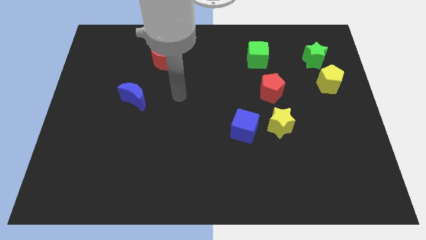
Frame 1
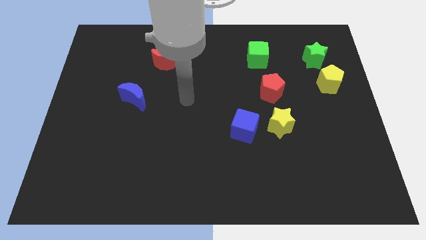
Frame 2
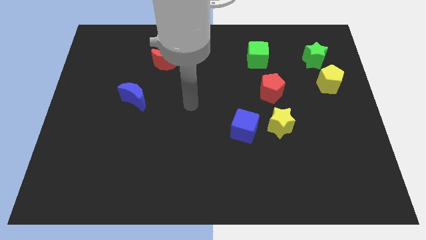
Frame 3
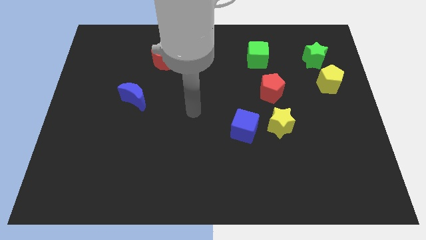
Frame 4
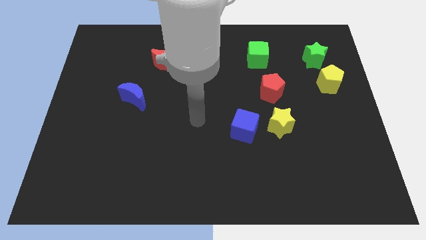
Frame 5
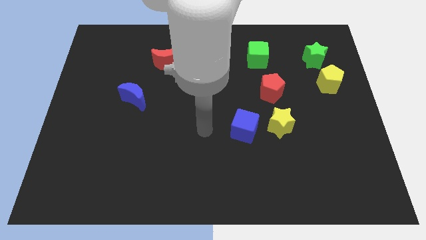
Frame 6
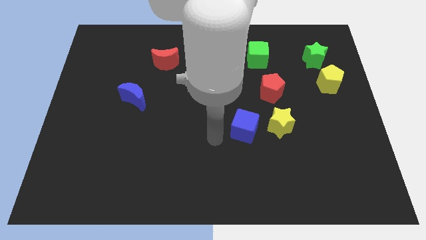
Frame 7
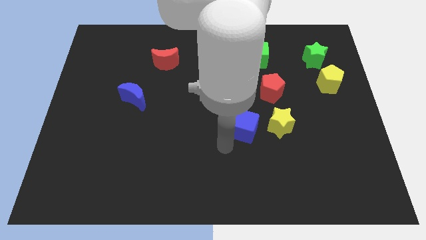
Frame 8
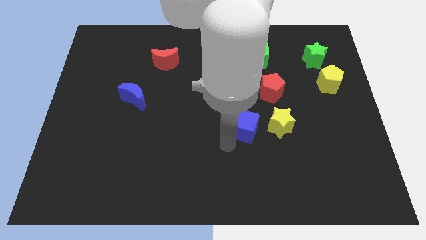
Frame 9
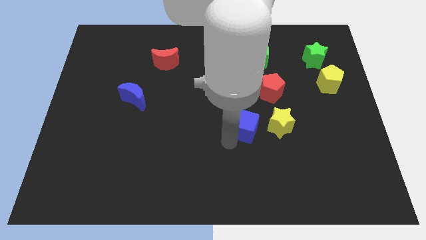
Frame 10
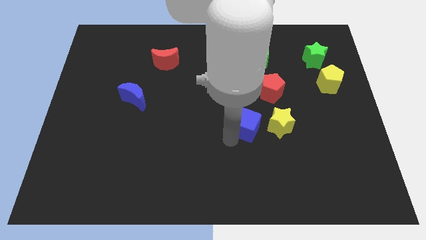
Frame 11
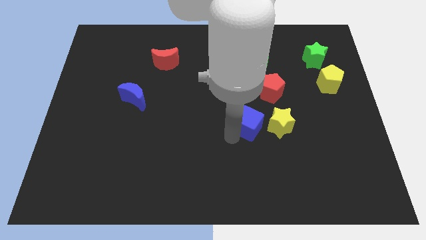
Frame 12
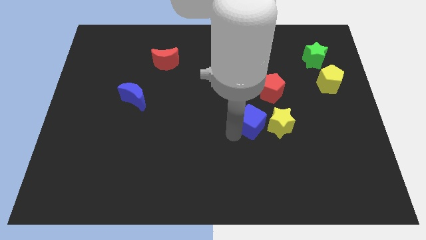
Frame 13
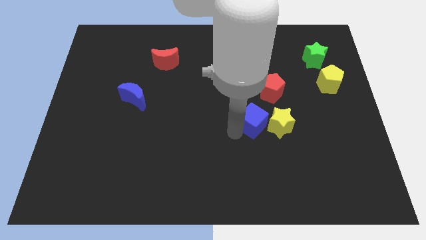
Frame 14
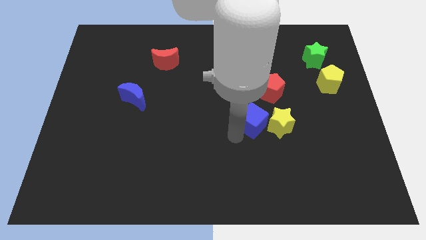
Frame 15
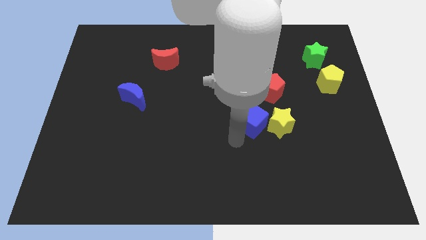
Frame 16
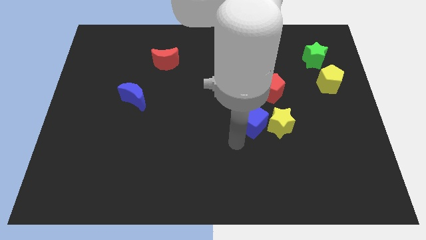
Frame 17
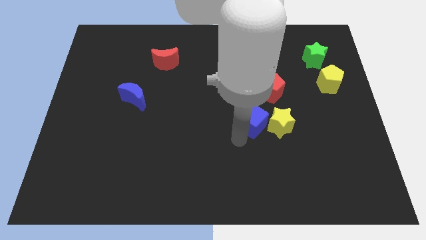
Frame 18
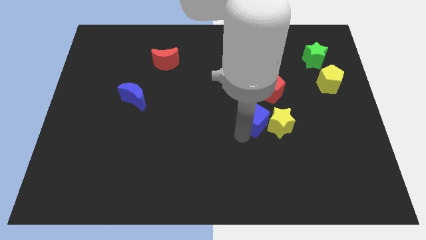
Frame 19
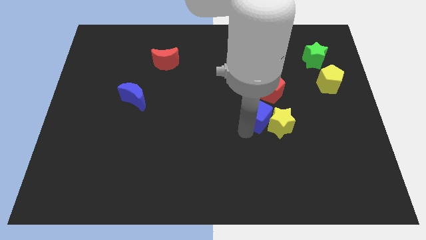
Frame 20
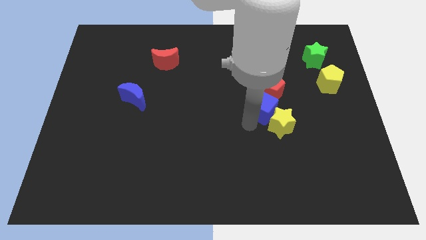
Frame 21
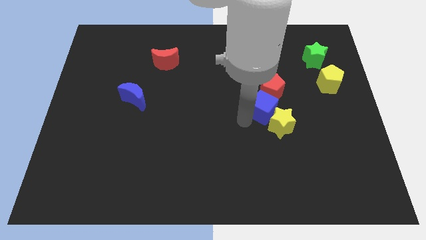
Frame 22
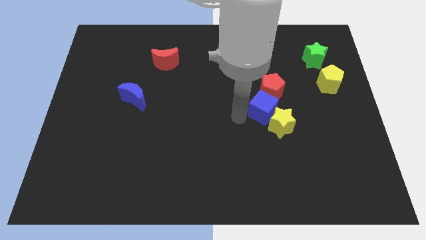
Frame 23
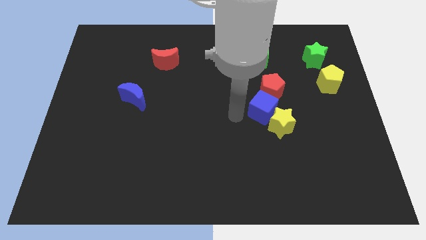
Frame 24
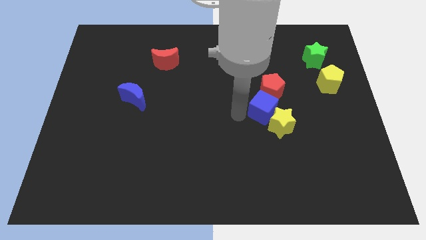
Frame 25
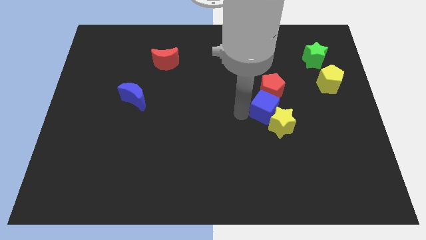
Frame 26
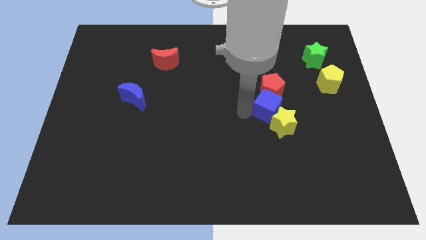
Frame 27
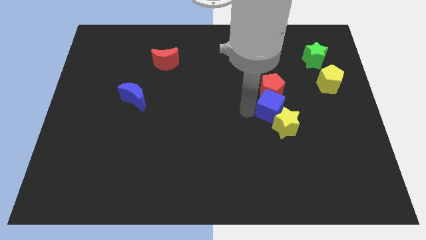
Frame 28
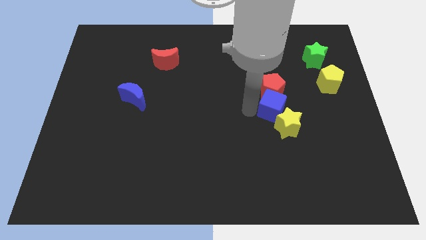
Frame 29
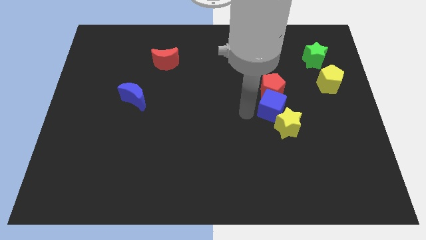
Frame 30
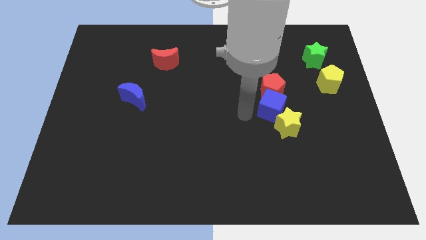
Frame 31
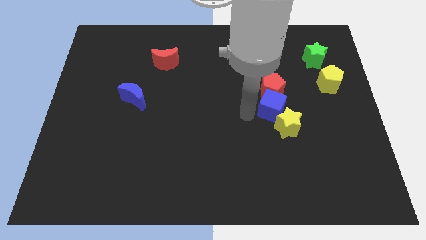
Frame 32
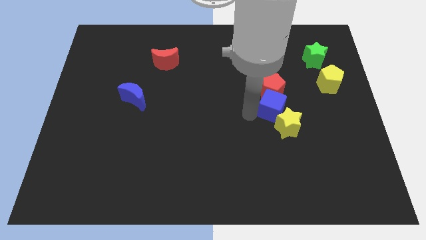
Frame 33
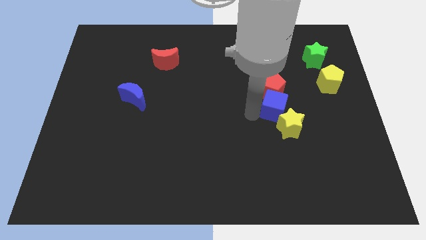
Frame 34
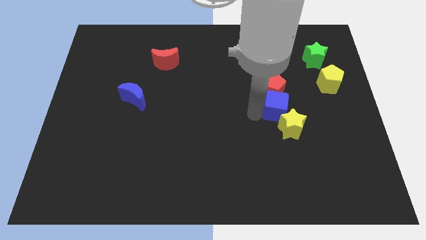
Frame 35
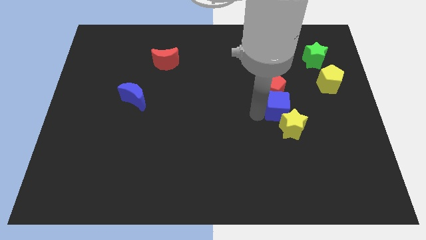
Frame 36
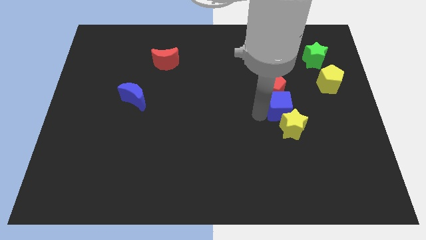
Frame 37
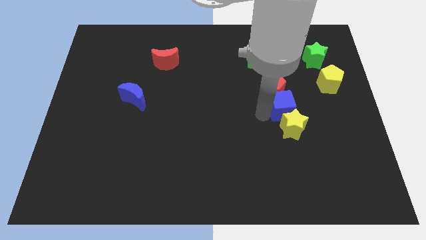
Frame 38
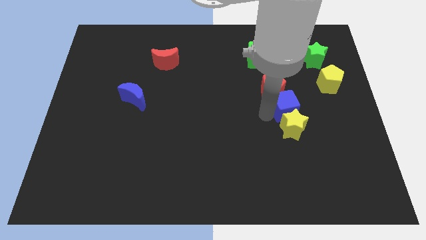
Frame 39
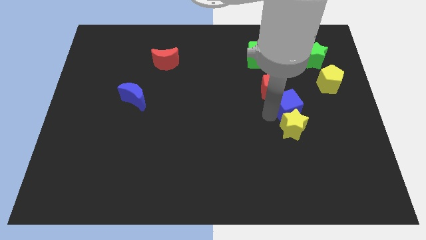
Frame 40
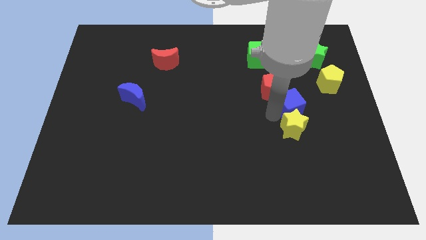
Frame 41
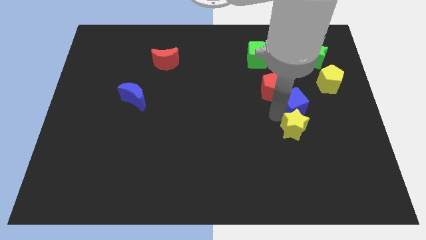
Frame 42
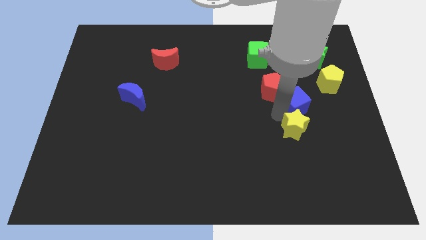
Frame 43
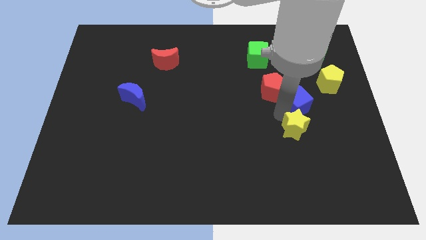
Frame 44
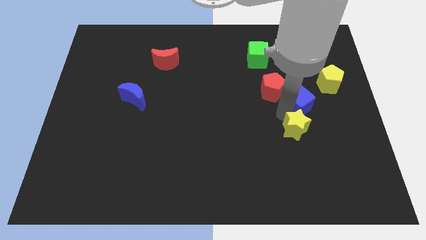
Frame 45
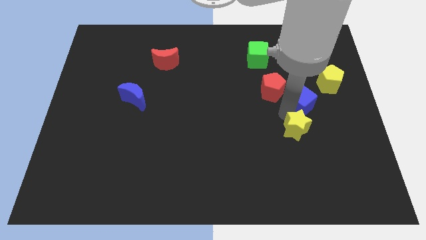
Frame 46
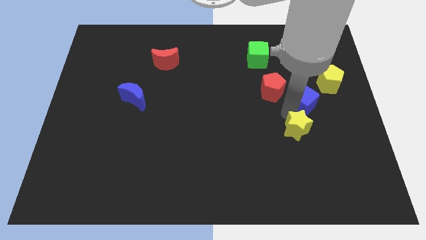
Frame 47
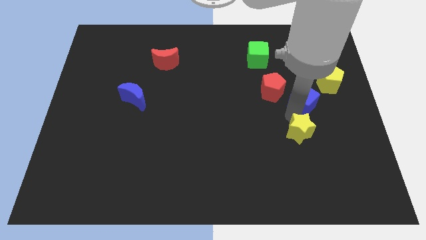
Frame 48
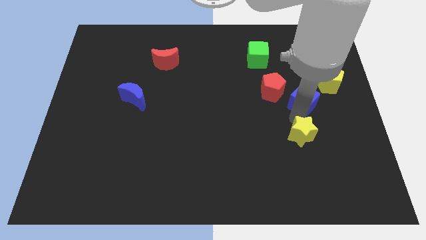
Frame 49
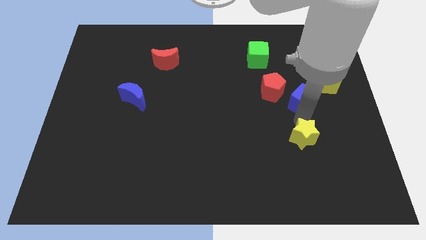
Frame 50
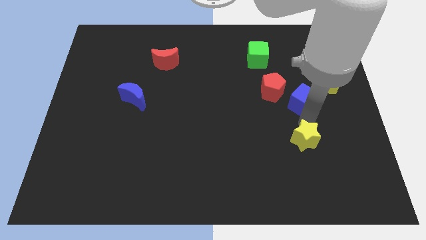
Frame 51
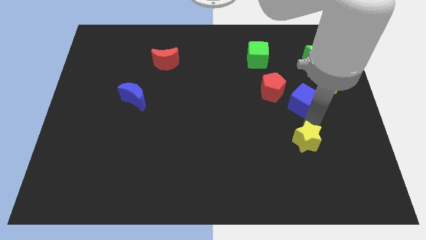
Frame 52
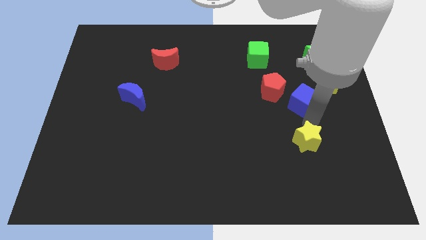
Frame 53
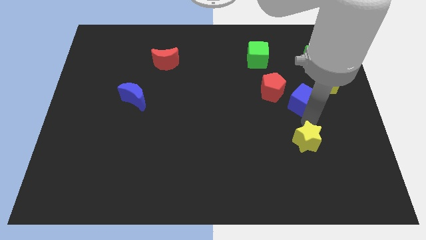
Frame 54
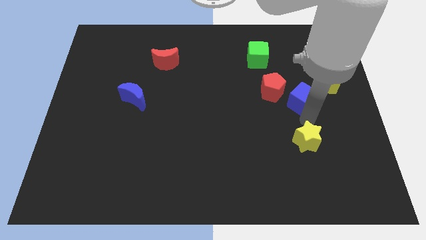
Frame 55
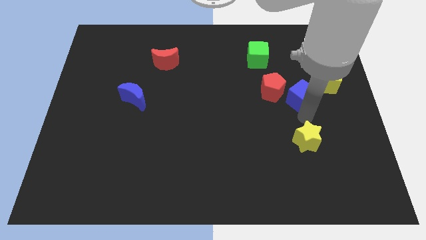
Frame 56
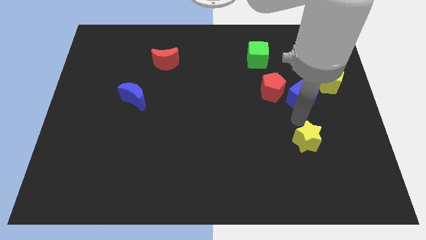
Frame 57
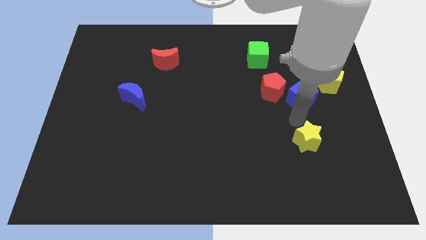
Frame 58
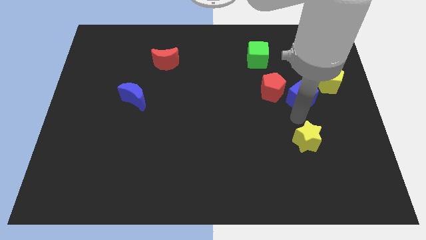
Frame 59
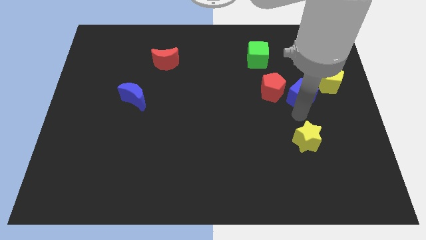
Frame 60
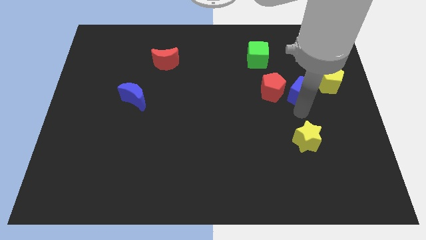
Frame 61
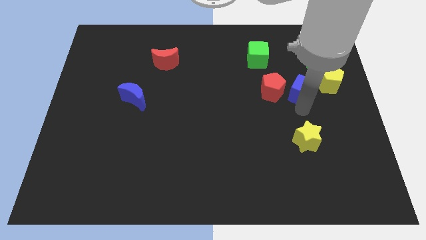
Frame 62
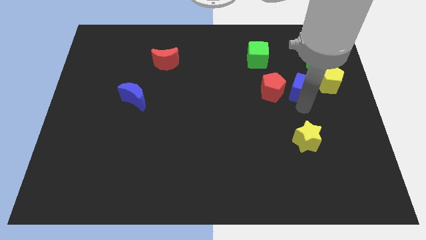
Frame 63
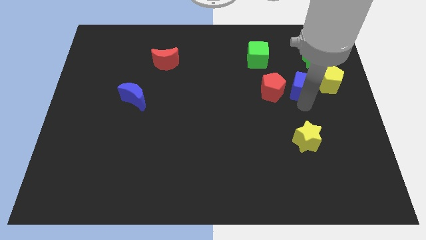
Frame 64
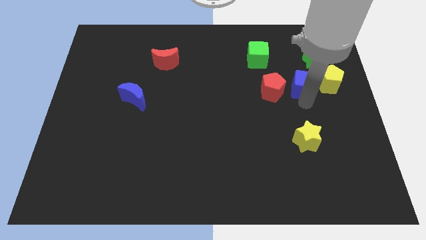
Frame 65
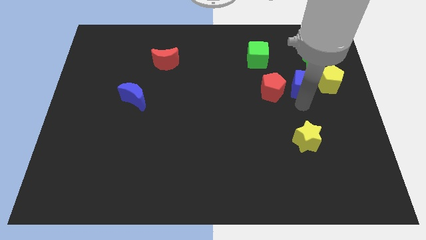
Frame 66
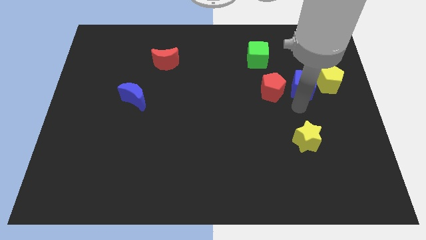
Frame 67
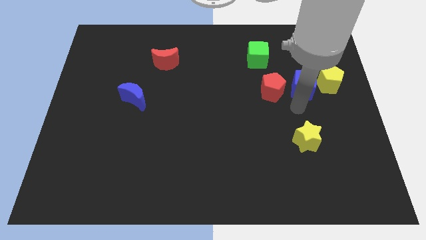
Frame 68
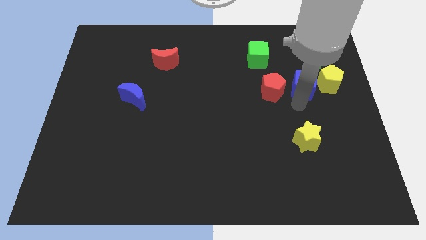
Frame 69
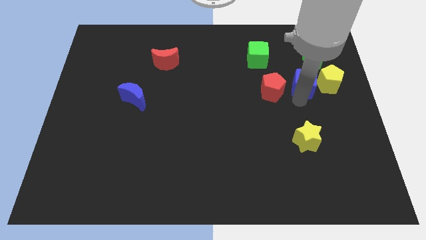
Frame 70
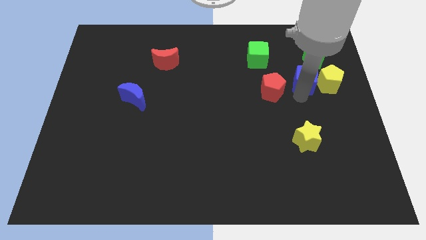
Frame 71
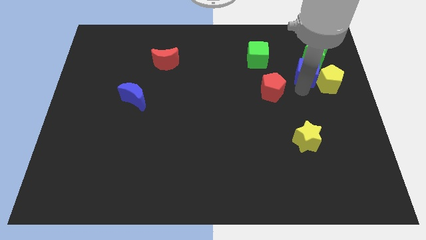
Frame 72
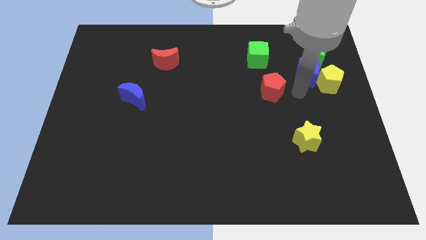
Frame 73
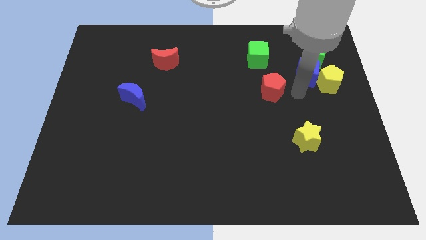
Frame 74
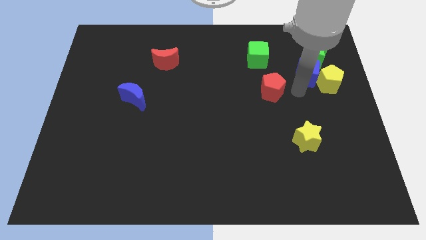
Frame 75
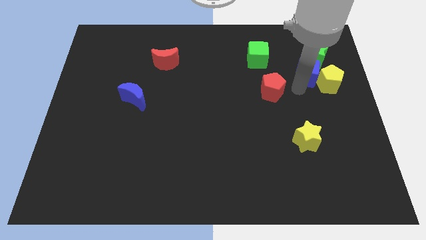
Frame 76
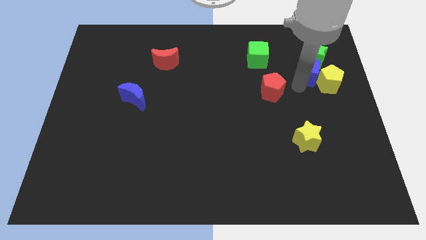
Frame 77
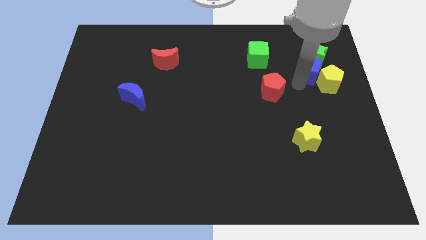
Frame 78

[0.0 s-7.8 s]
slide the blue cube towards the green star
